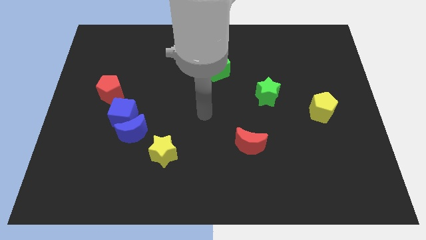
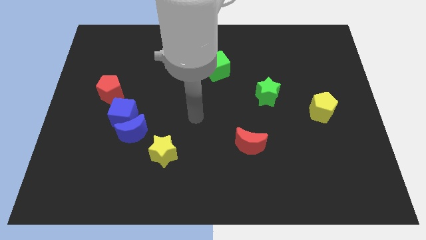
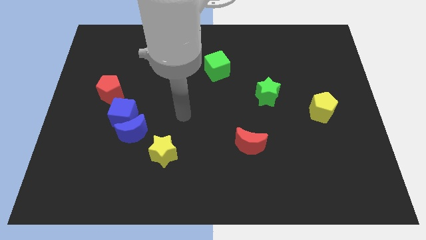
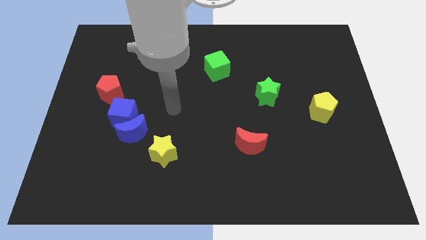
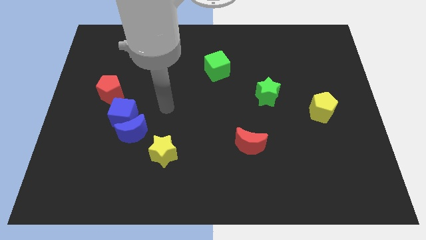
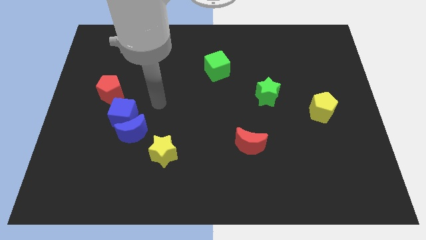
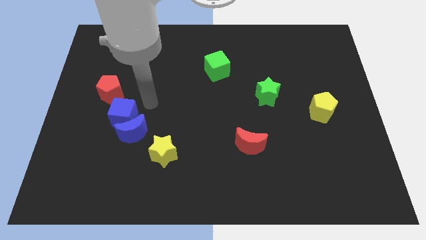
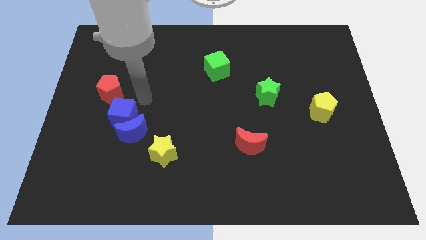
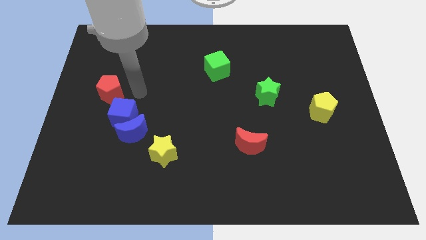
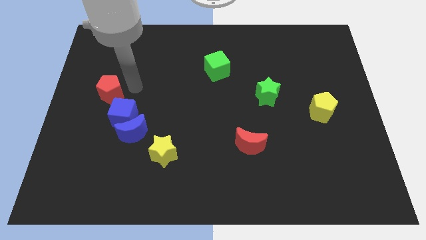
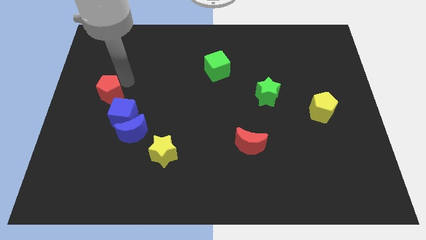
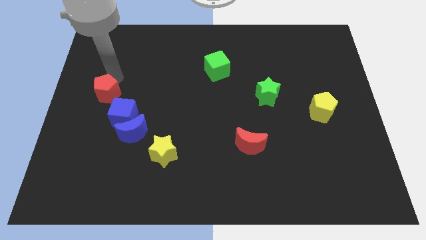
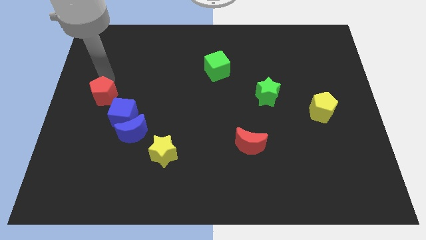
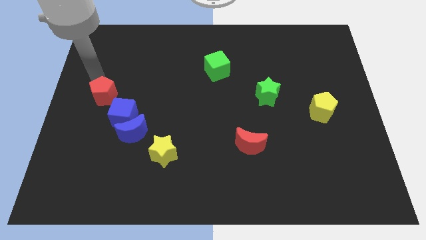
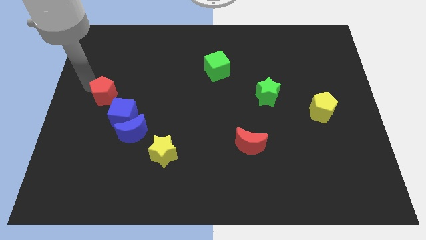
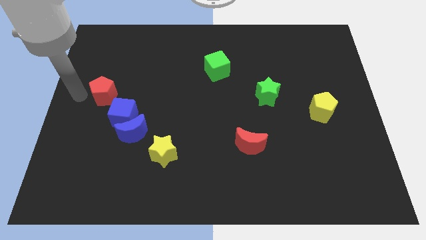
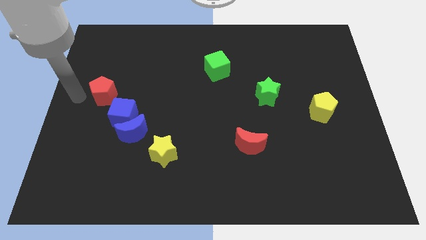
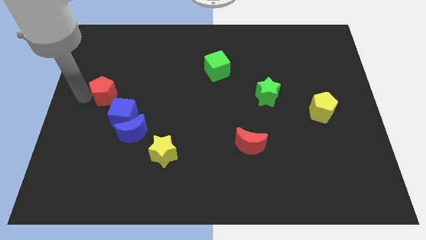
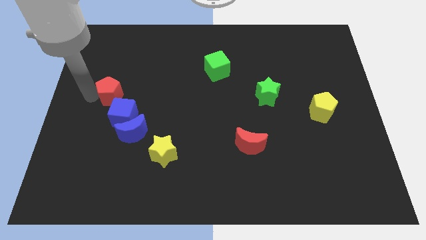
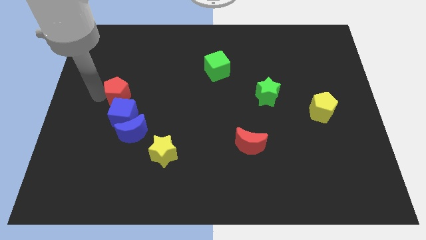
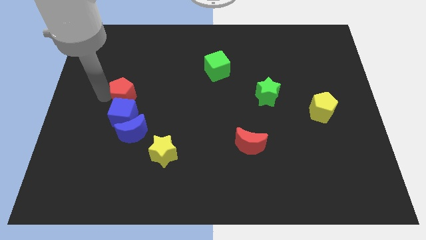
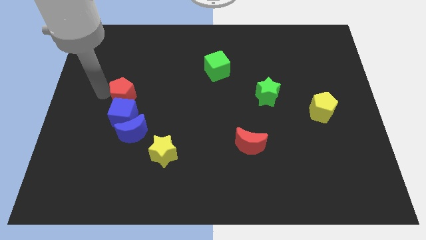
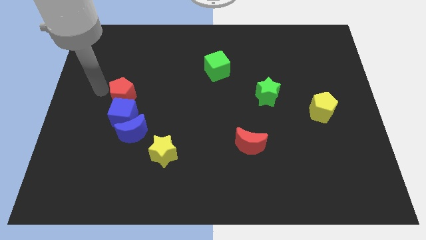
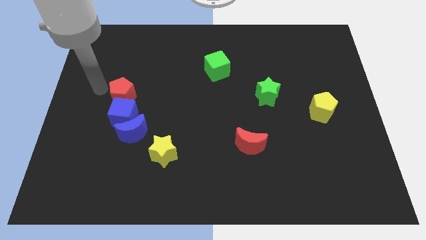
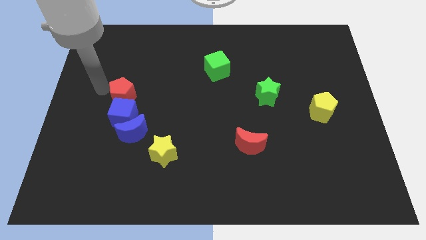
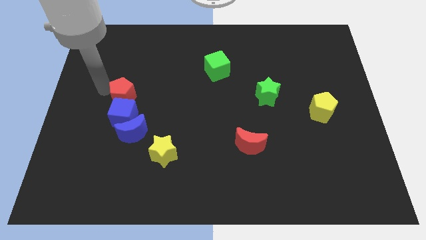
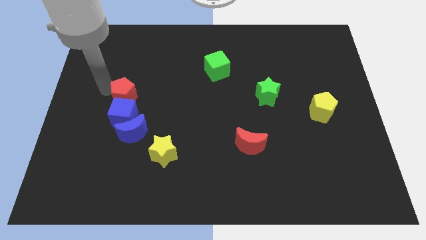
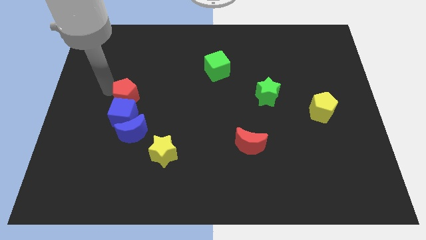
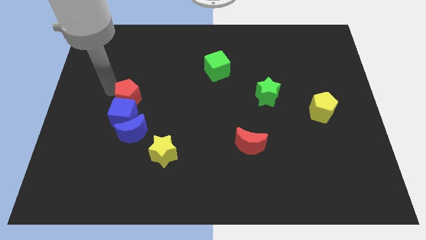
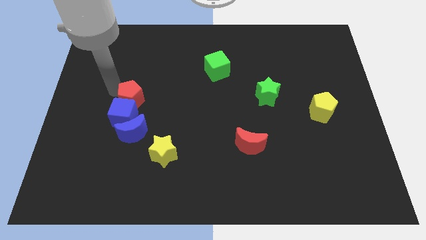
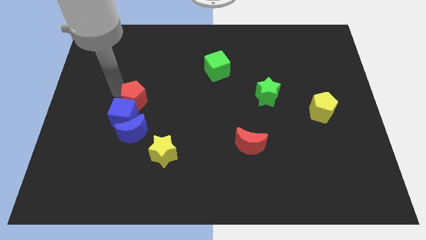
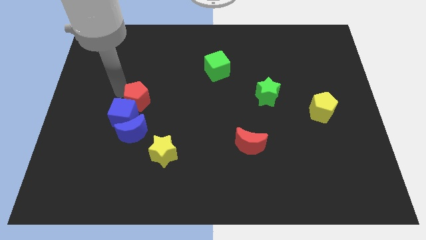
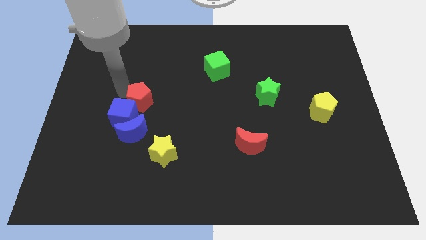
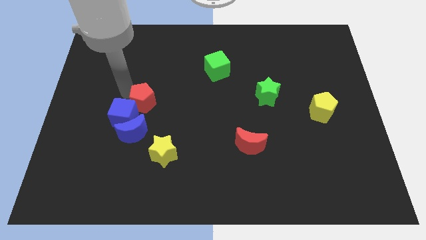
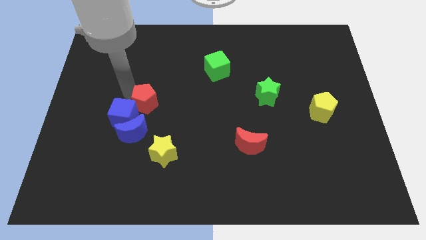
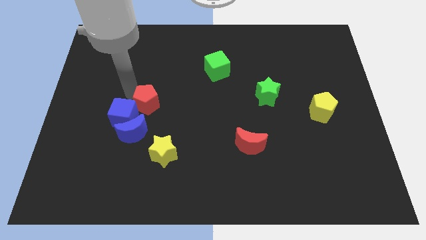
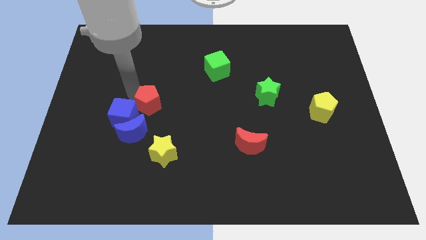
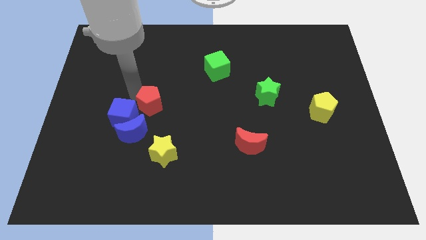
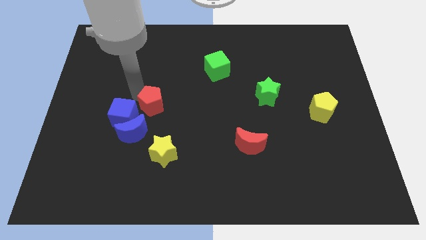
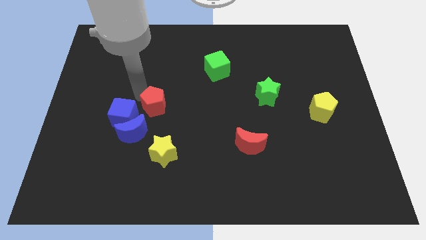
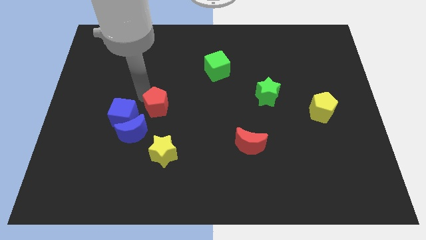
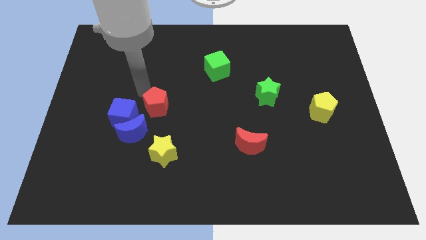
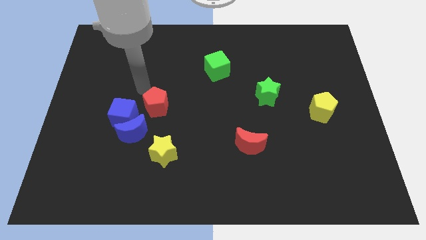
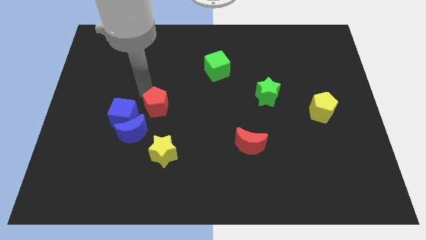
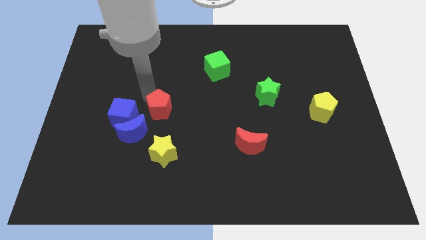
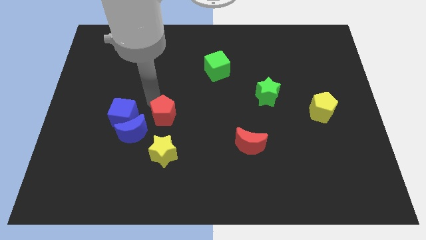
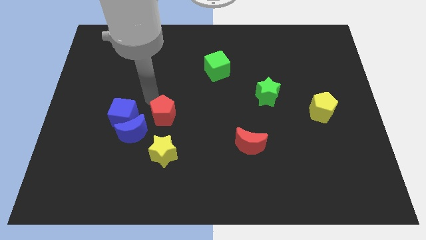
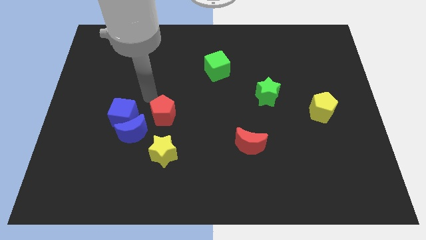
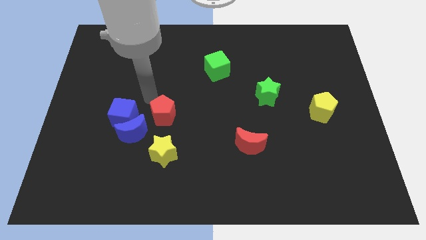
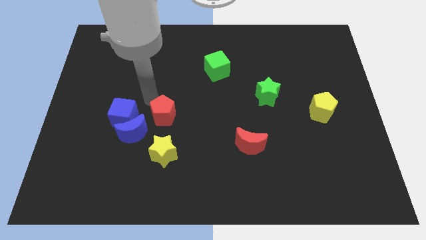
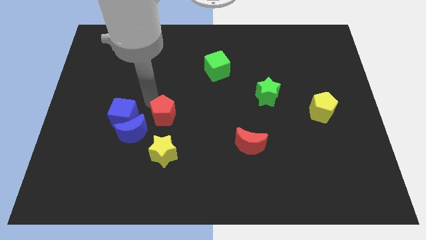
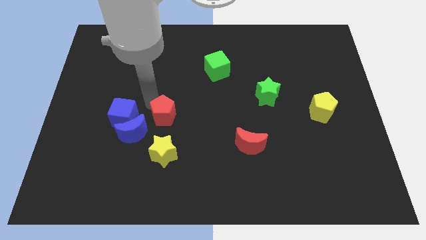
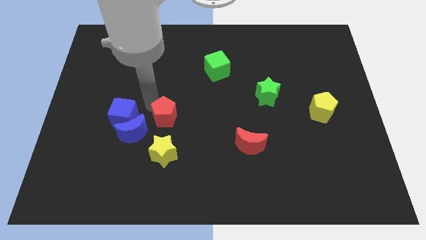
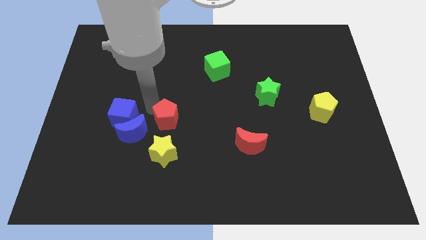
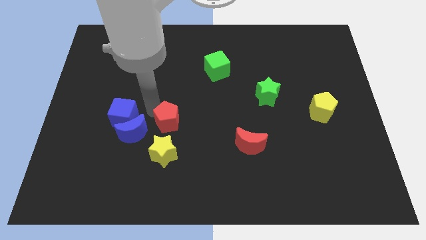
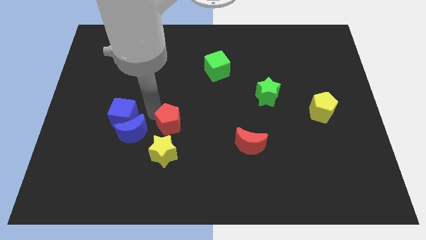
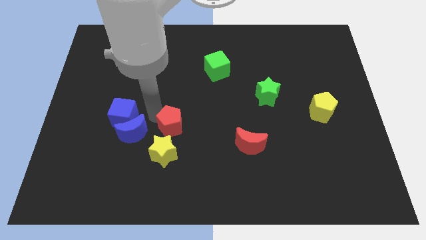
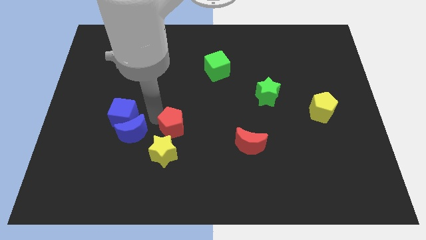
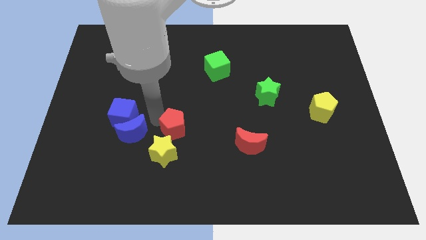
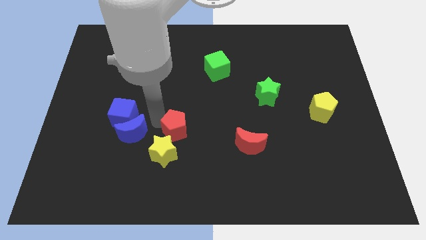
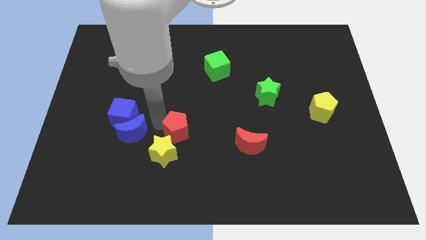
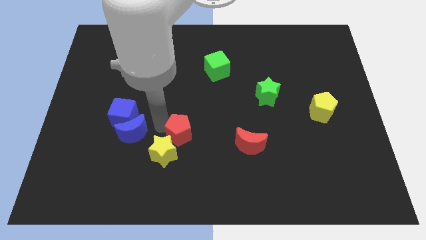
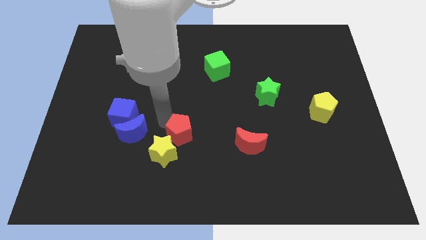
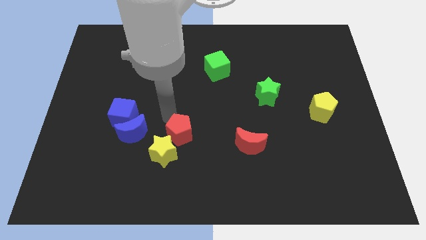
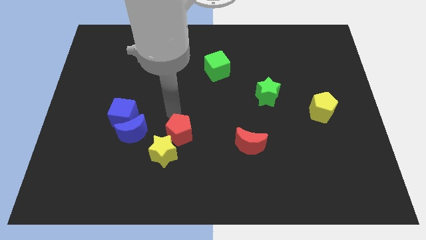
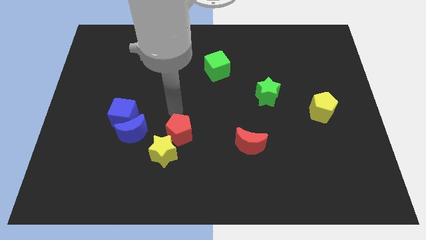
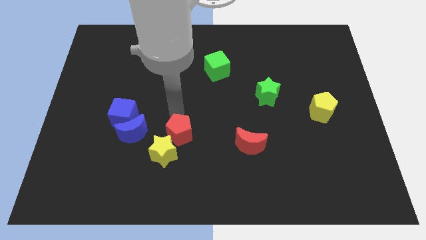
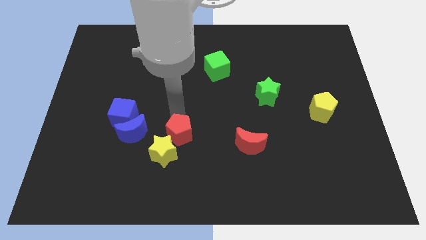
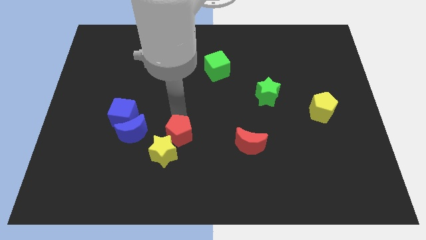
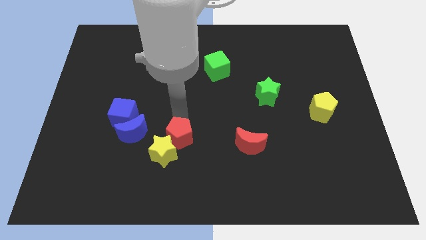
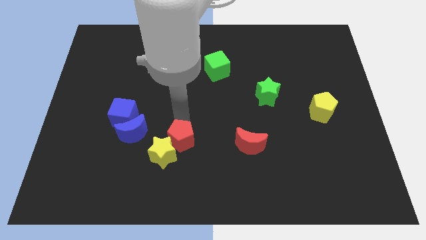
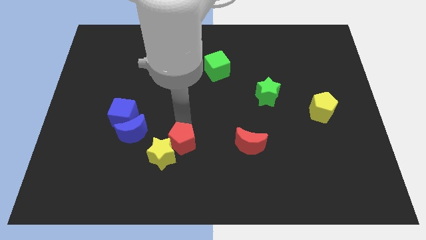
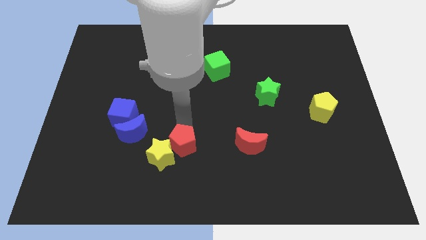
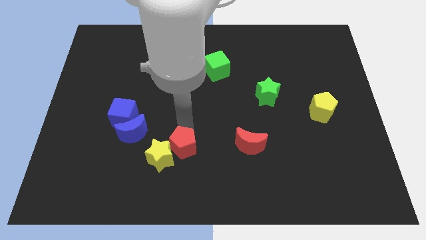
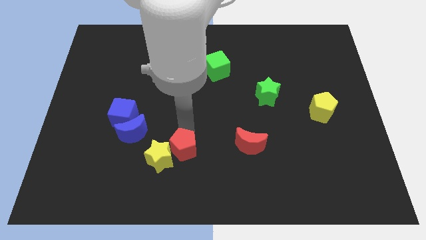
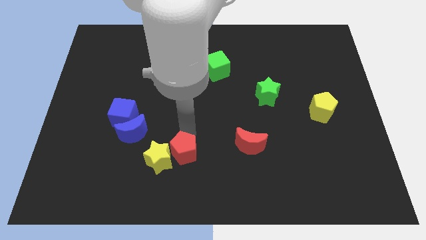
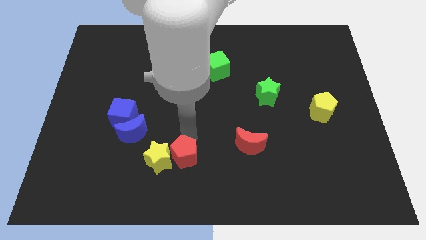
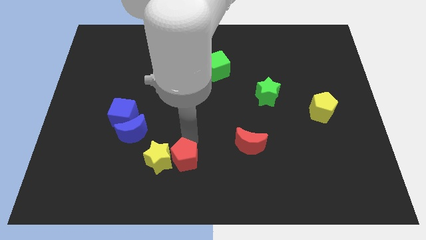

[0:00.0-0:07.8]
slide the red pentagon to the bottom side
